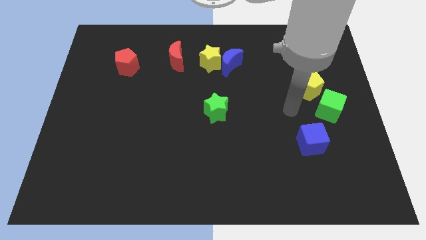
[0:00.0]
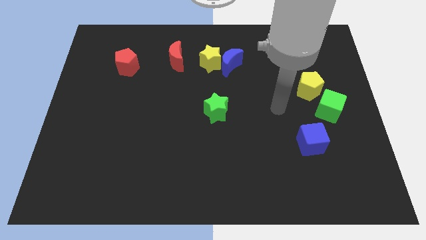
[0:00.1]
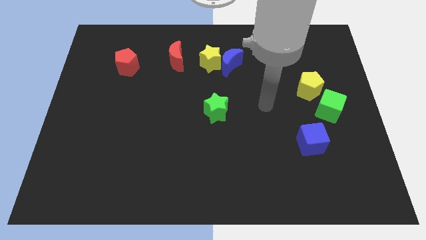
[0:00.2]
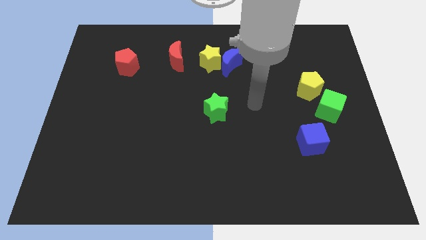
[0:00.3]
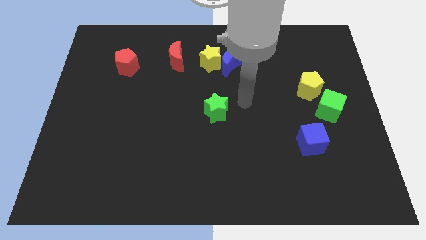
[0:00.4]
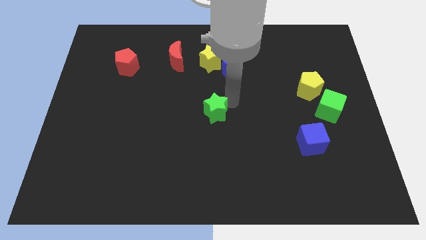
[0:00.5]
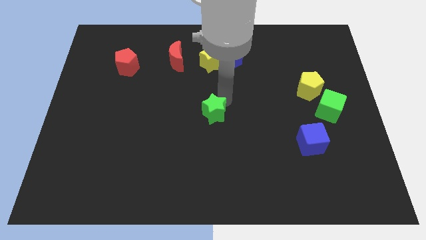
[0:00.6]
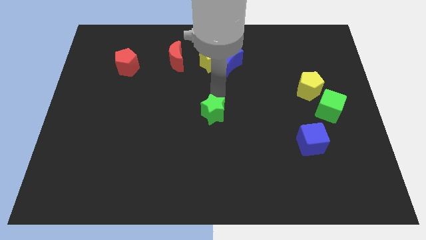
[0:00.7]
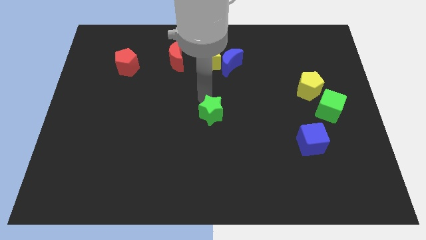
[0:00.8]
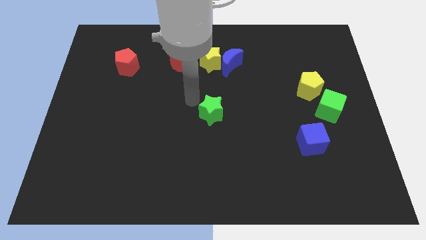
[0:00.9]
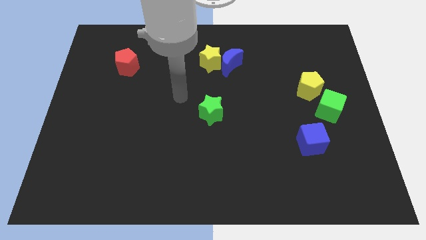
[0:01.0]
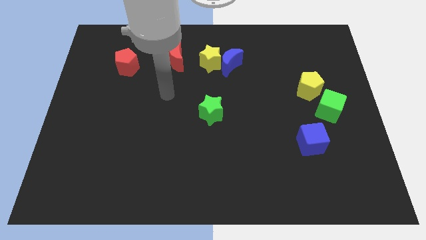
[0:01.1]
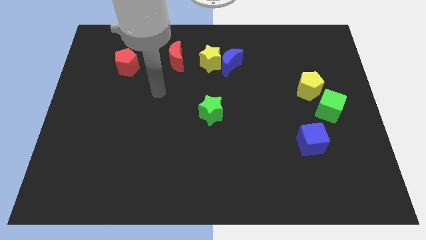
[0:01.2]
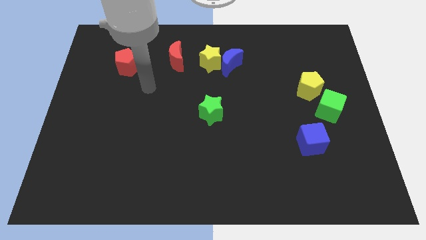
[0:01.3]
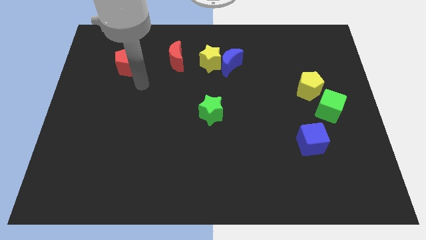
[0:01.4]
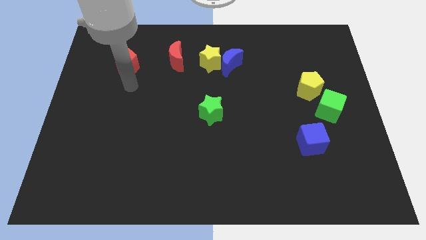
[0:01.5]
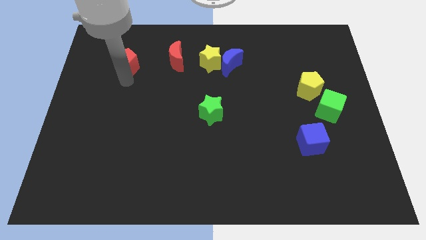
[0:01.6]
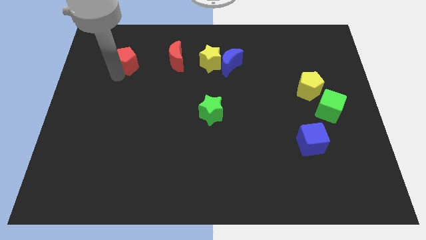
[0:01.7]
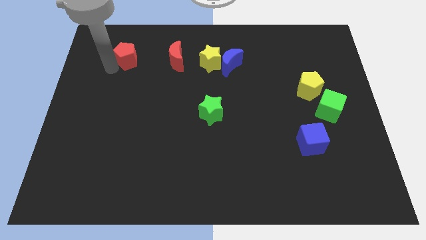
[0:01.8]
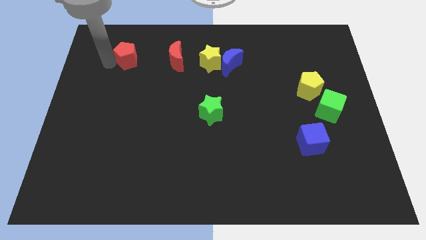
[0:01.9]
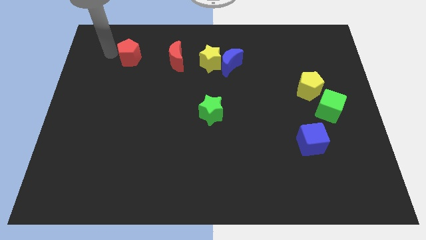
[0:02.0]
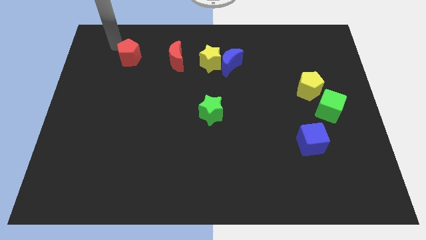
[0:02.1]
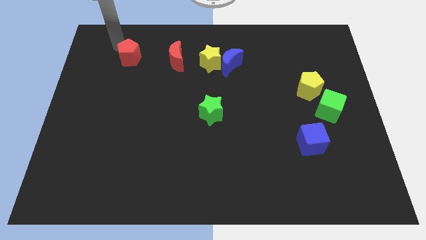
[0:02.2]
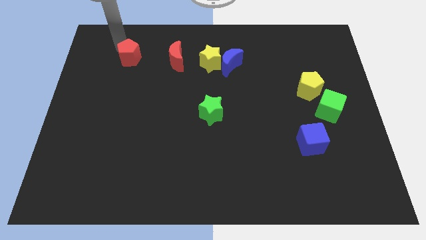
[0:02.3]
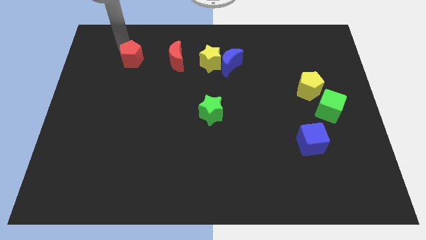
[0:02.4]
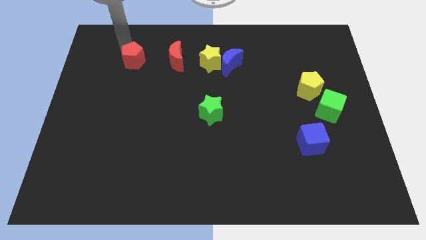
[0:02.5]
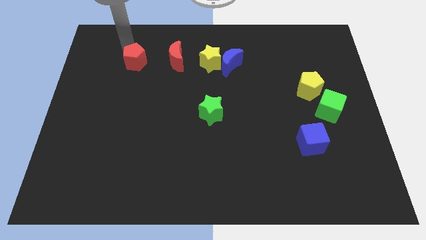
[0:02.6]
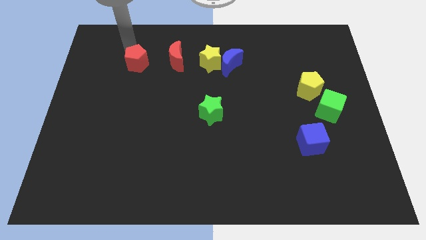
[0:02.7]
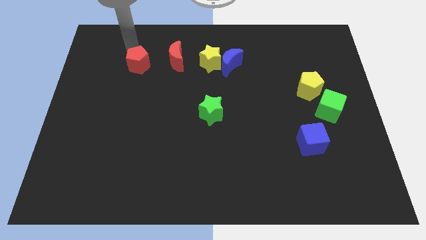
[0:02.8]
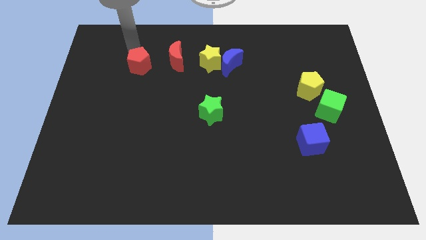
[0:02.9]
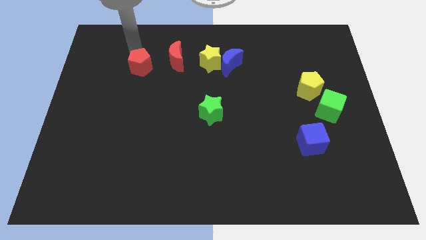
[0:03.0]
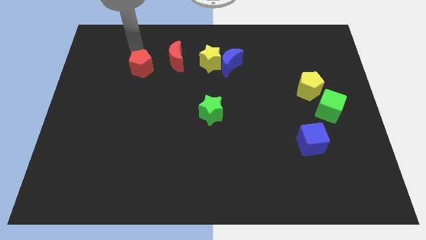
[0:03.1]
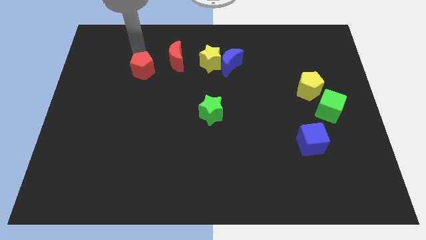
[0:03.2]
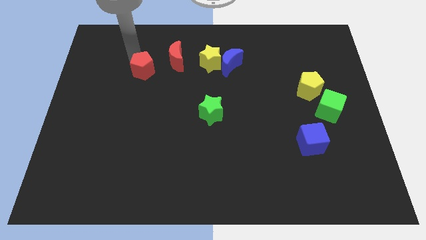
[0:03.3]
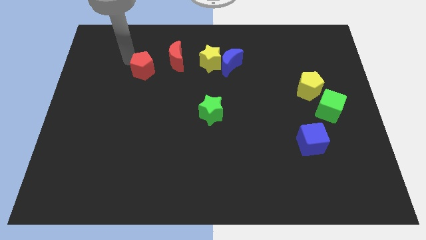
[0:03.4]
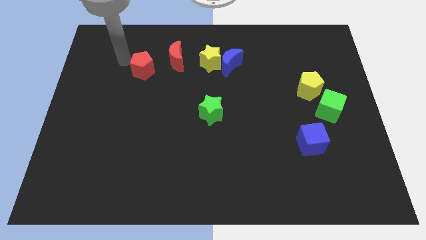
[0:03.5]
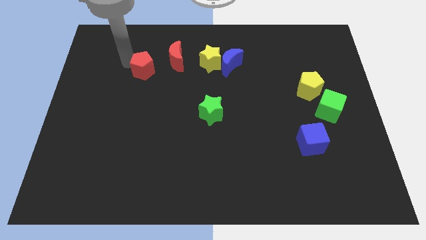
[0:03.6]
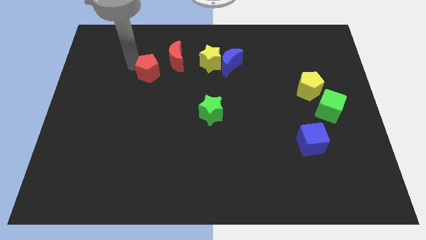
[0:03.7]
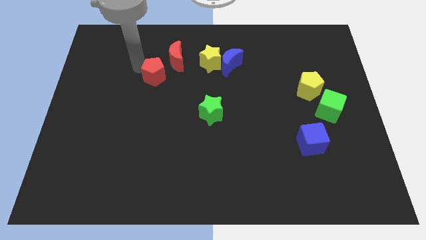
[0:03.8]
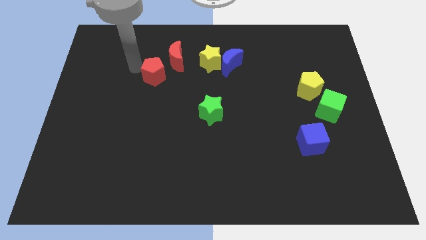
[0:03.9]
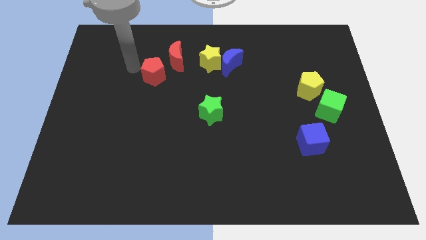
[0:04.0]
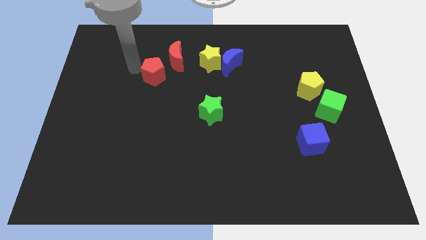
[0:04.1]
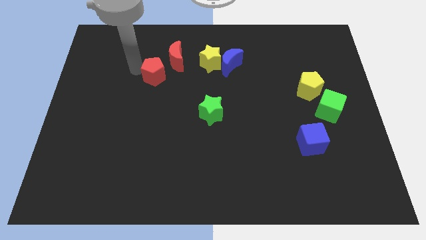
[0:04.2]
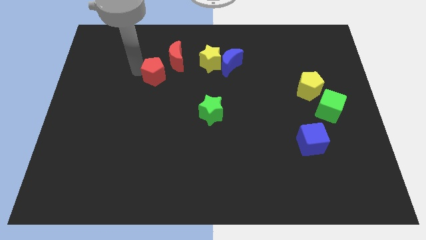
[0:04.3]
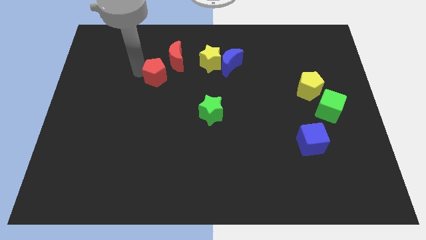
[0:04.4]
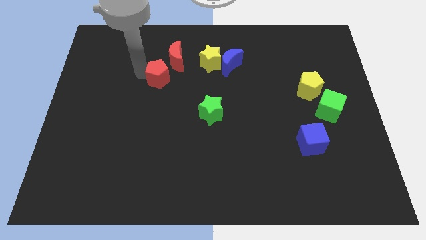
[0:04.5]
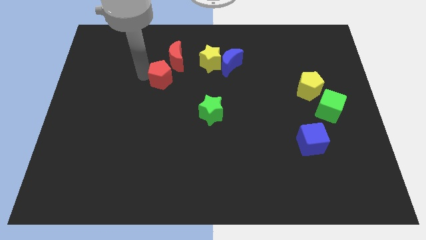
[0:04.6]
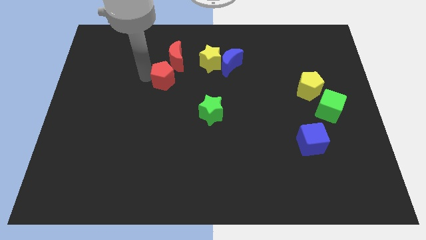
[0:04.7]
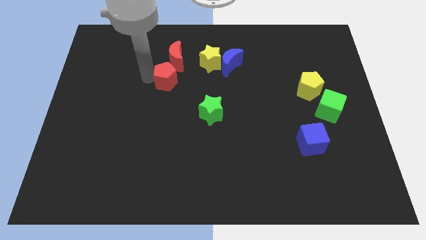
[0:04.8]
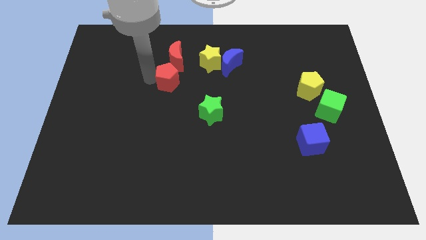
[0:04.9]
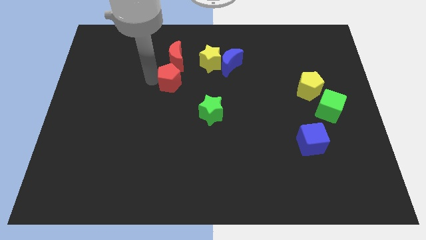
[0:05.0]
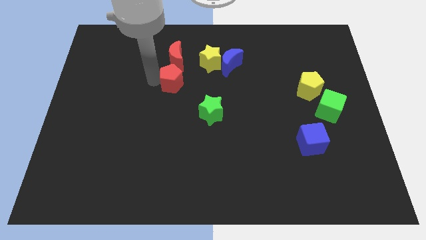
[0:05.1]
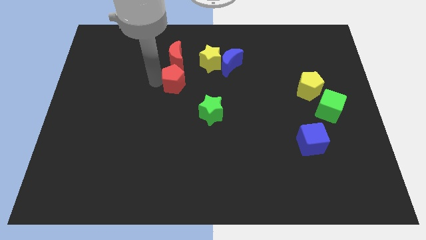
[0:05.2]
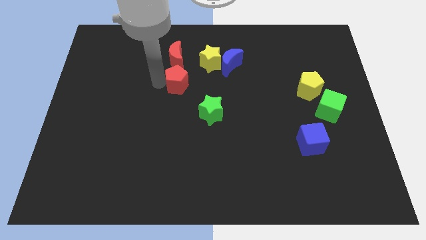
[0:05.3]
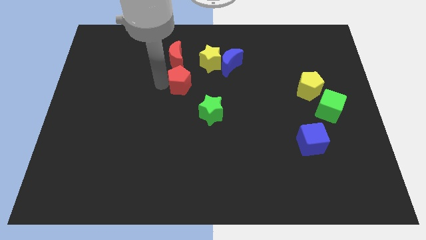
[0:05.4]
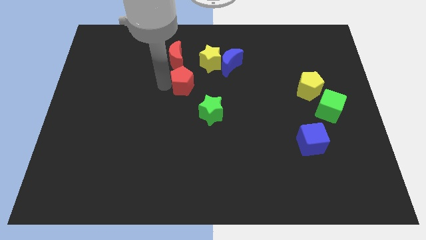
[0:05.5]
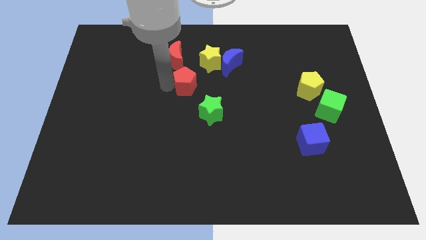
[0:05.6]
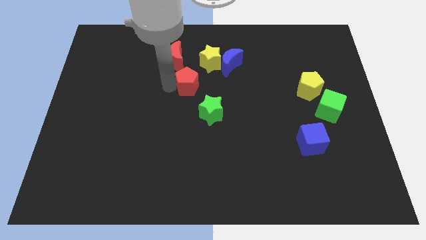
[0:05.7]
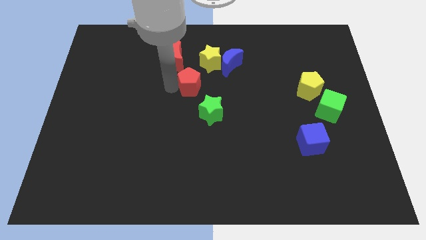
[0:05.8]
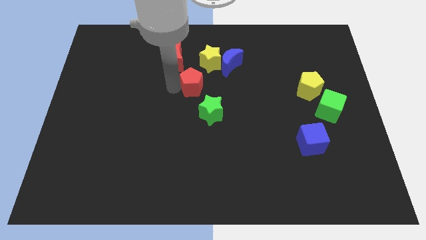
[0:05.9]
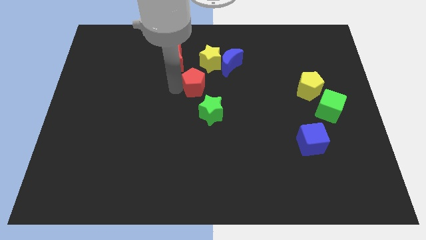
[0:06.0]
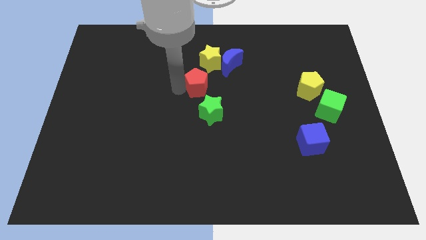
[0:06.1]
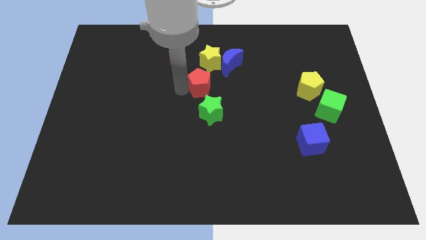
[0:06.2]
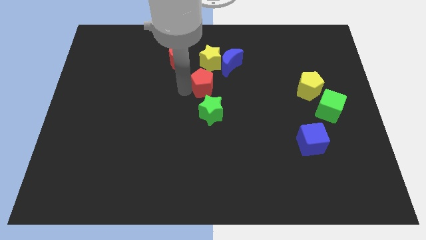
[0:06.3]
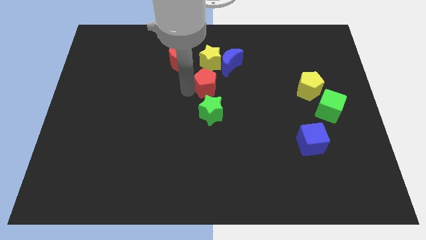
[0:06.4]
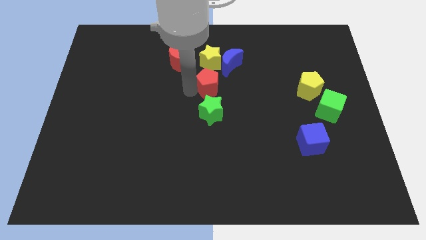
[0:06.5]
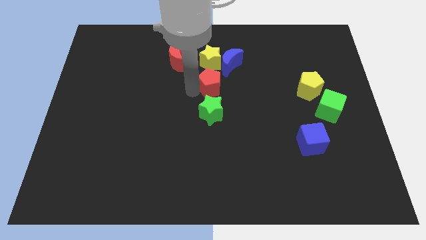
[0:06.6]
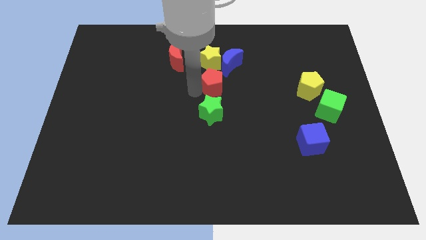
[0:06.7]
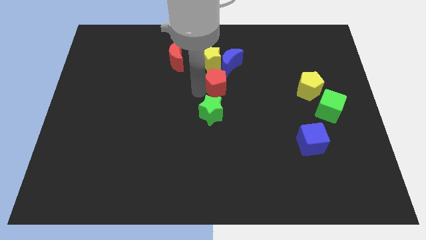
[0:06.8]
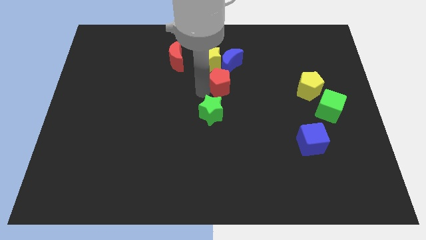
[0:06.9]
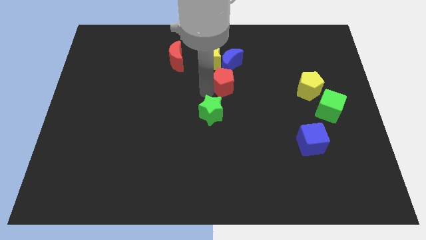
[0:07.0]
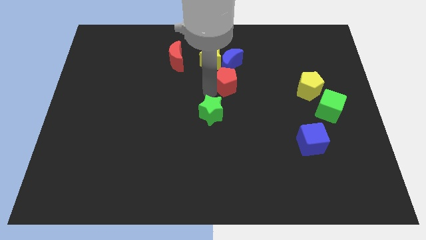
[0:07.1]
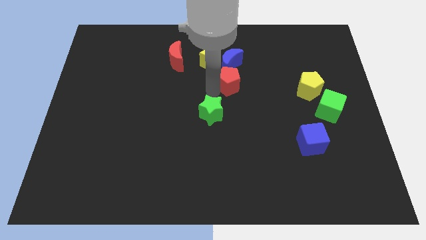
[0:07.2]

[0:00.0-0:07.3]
move the red pentagon to the bottom right of the blue moon
